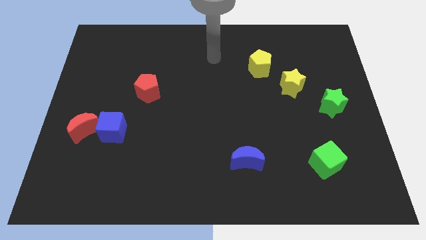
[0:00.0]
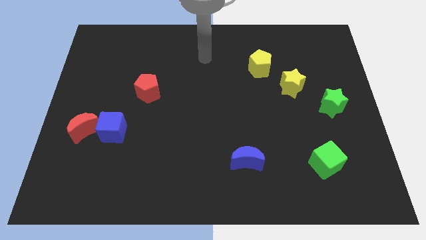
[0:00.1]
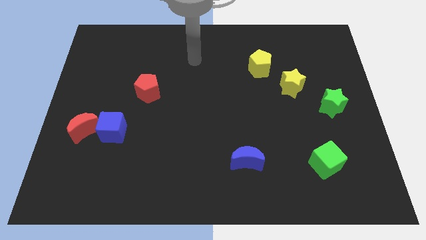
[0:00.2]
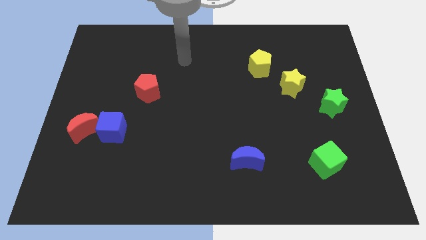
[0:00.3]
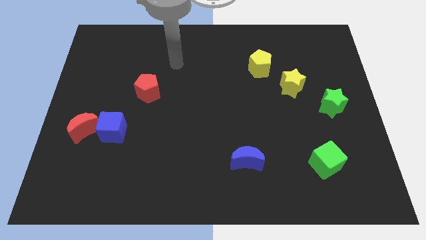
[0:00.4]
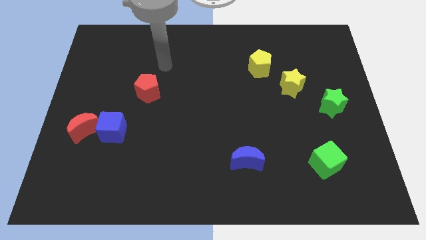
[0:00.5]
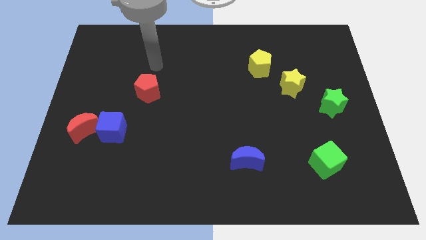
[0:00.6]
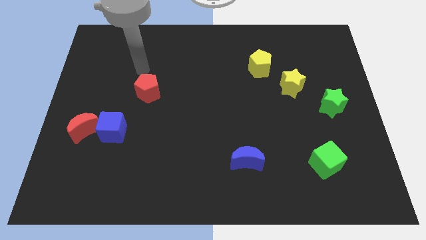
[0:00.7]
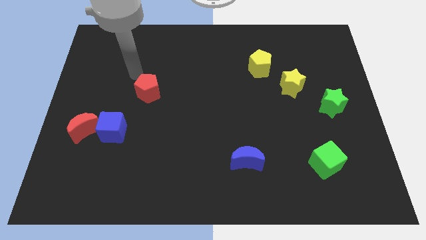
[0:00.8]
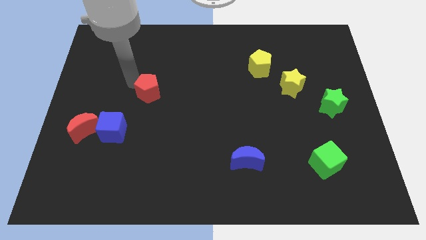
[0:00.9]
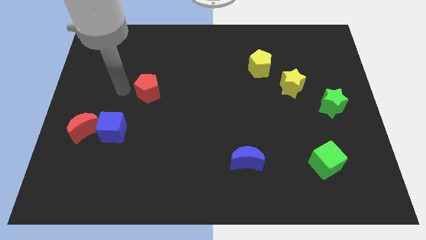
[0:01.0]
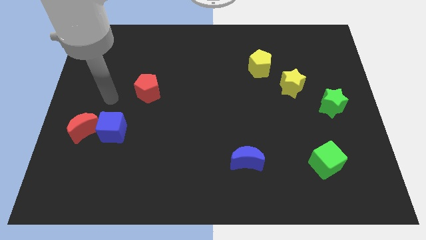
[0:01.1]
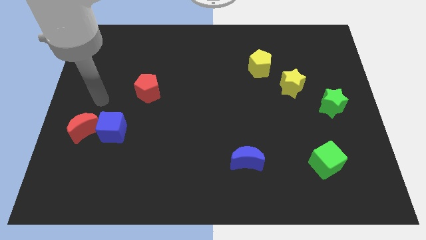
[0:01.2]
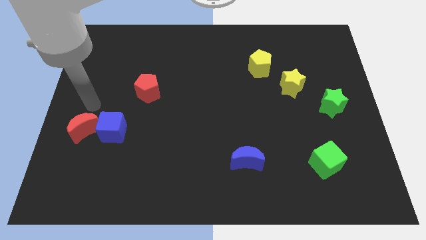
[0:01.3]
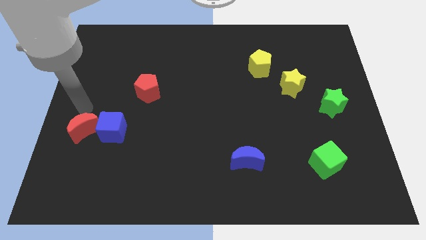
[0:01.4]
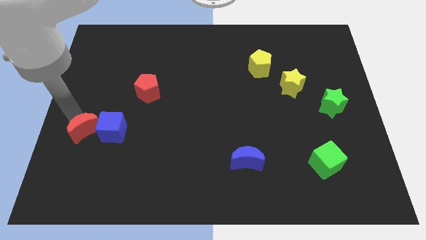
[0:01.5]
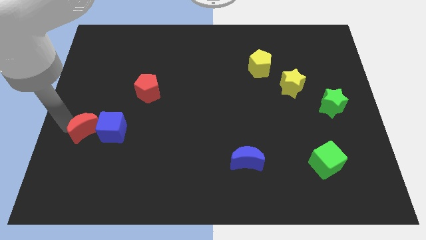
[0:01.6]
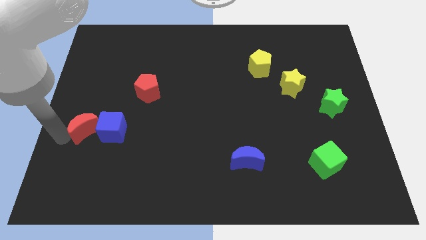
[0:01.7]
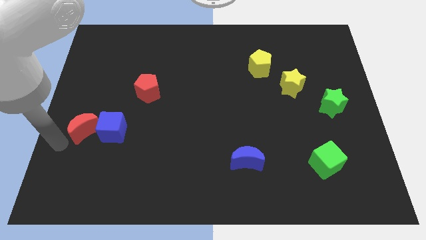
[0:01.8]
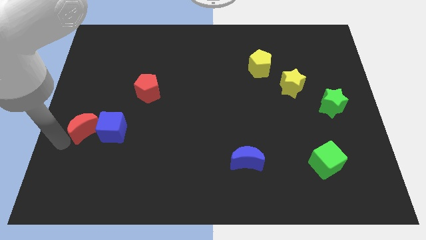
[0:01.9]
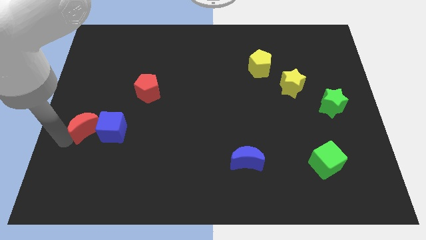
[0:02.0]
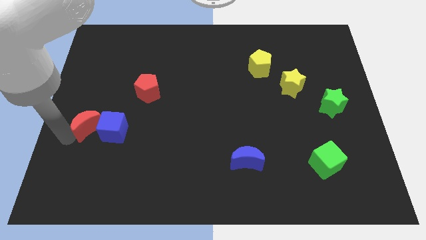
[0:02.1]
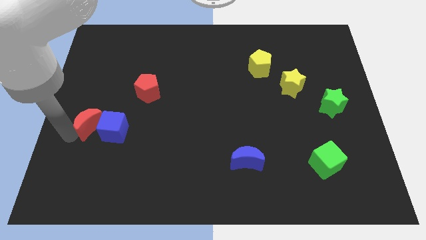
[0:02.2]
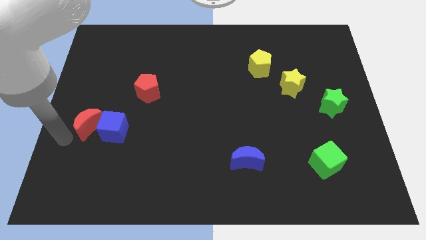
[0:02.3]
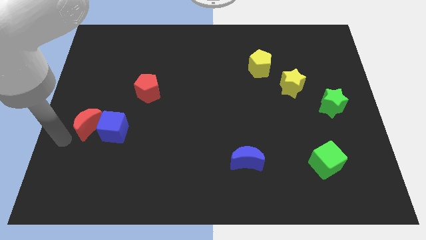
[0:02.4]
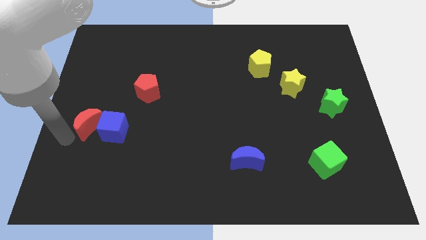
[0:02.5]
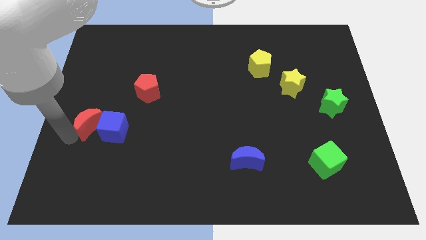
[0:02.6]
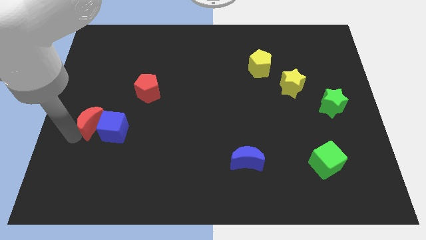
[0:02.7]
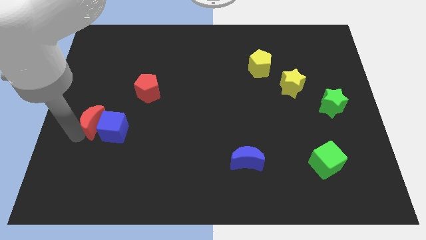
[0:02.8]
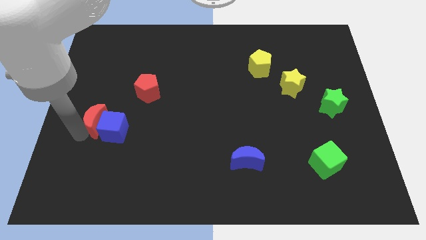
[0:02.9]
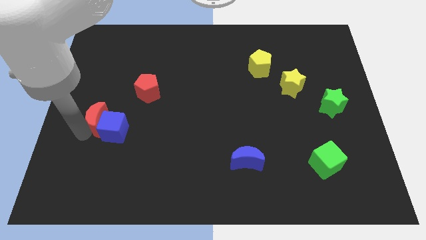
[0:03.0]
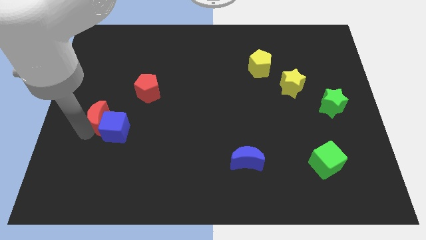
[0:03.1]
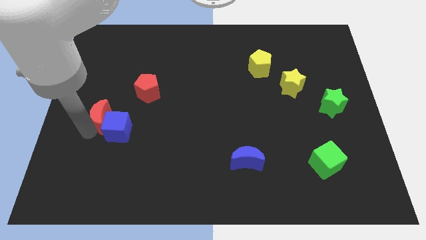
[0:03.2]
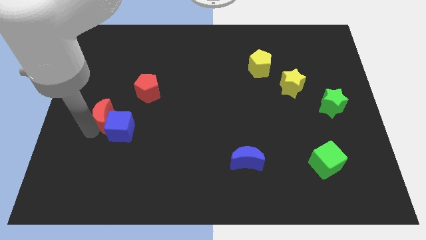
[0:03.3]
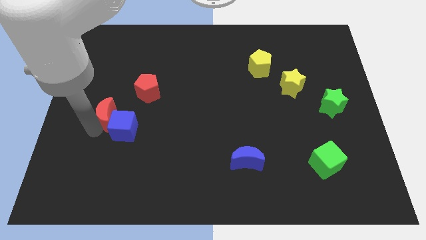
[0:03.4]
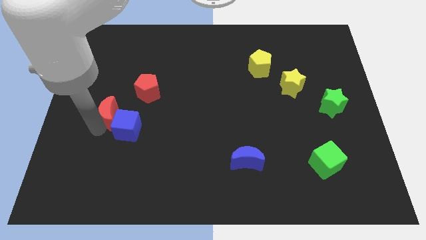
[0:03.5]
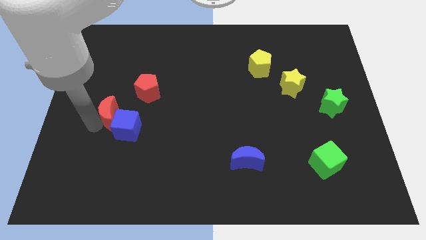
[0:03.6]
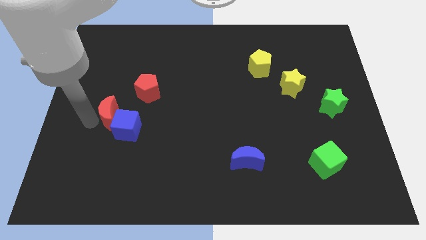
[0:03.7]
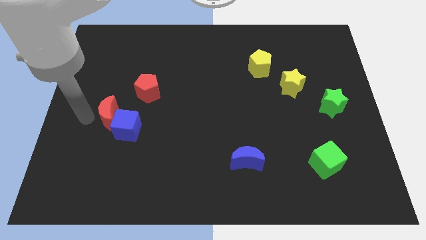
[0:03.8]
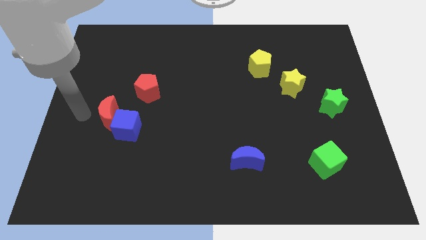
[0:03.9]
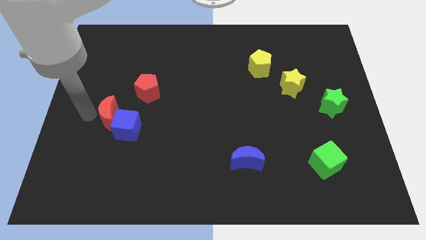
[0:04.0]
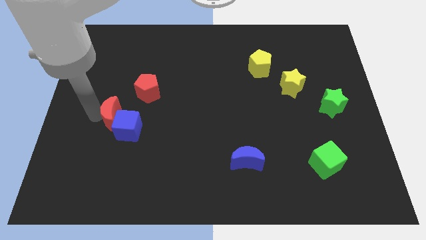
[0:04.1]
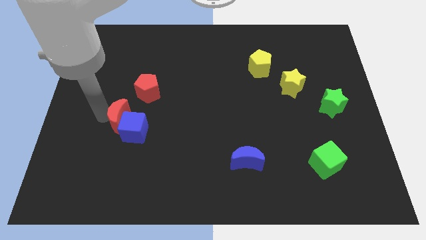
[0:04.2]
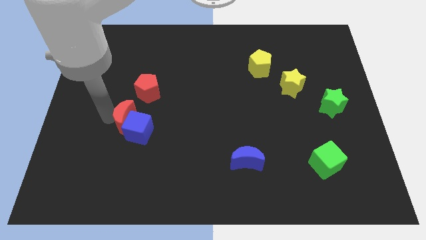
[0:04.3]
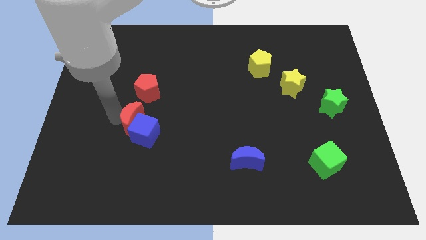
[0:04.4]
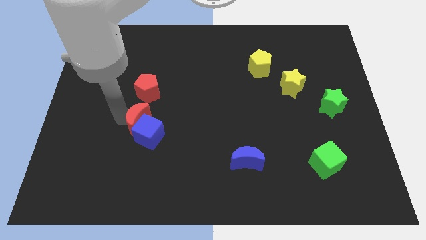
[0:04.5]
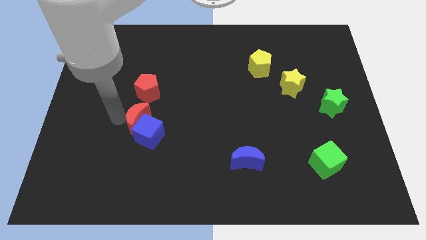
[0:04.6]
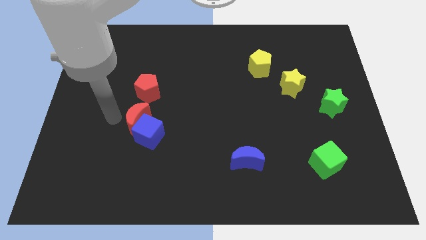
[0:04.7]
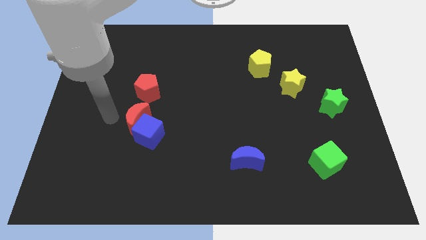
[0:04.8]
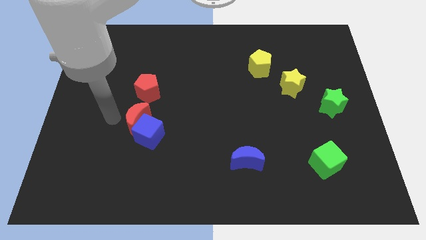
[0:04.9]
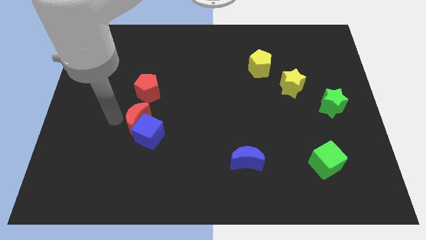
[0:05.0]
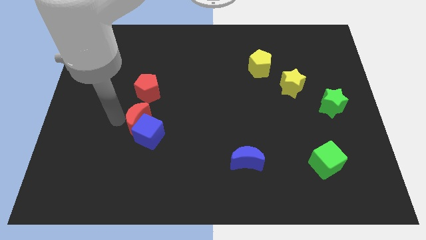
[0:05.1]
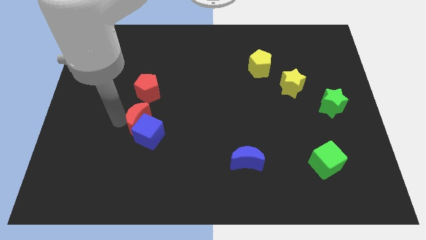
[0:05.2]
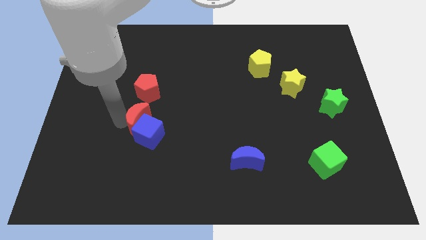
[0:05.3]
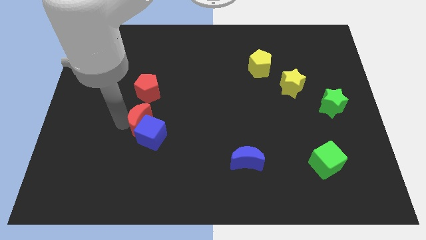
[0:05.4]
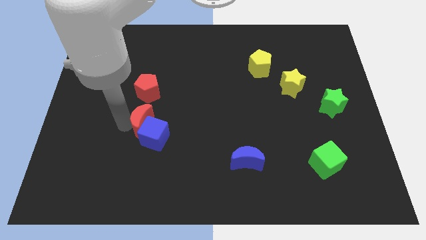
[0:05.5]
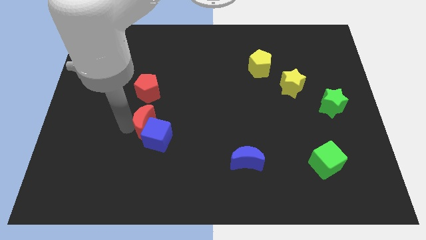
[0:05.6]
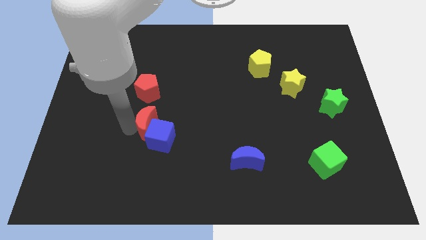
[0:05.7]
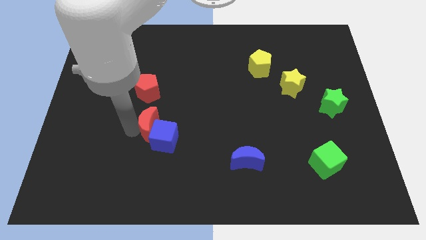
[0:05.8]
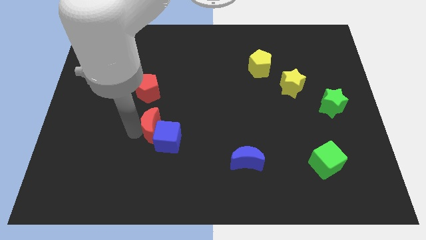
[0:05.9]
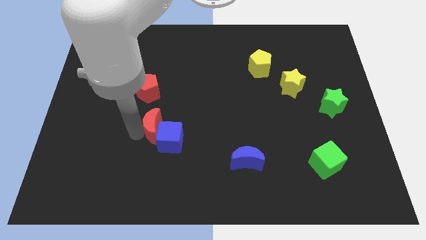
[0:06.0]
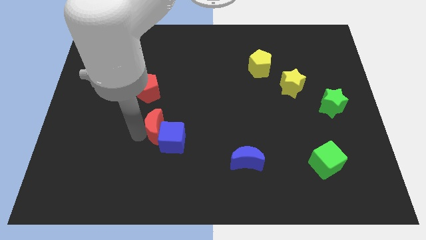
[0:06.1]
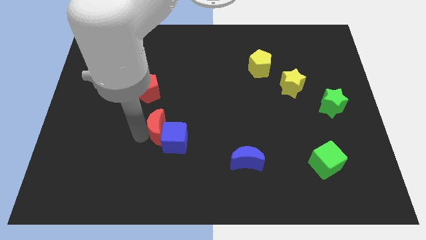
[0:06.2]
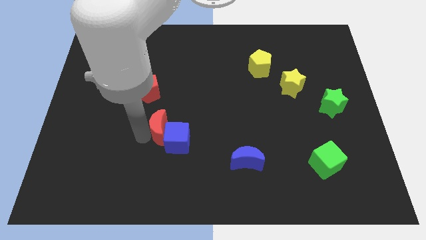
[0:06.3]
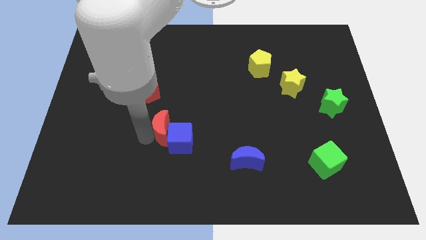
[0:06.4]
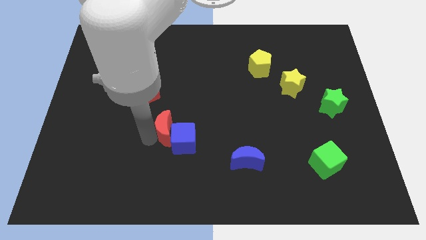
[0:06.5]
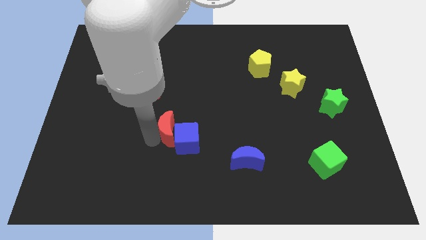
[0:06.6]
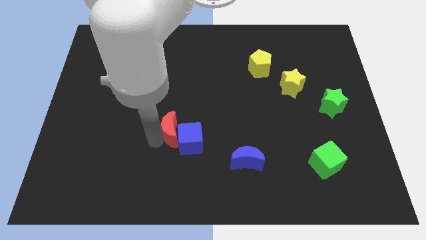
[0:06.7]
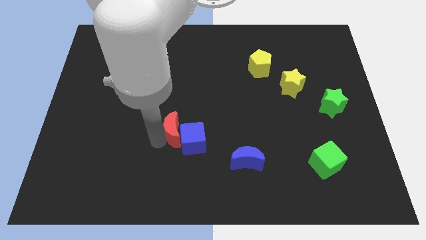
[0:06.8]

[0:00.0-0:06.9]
slide the red moon right

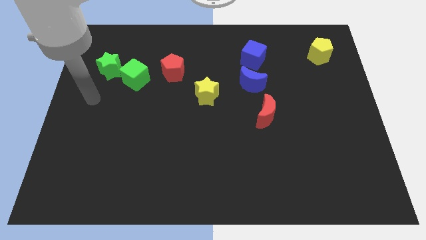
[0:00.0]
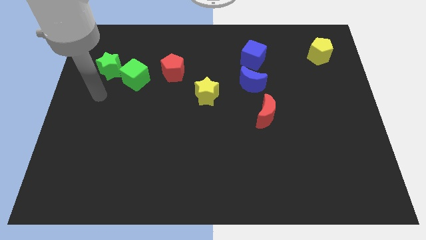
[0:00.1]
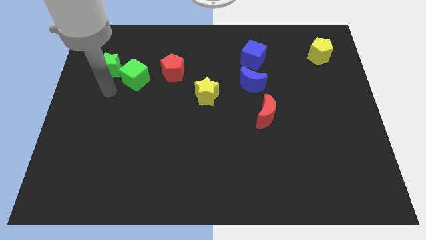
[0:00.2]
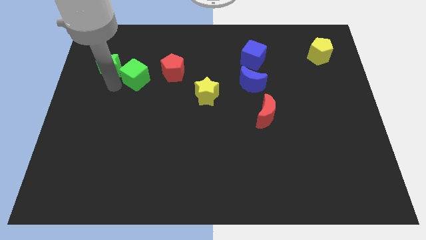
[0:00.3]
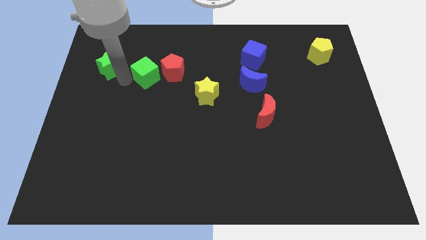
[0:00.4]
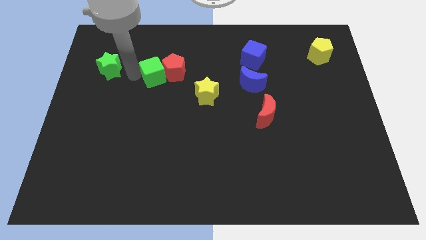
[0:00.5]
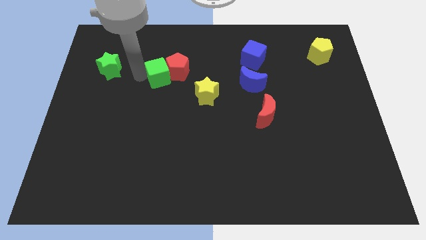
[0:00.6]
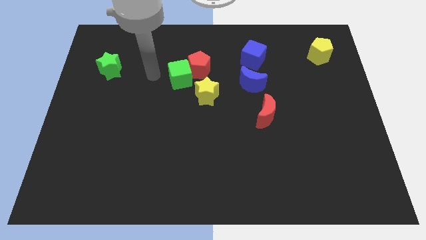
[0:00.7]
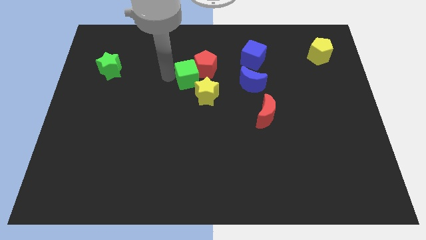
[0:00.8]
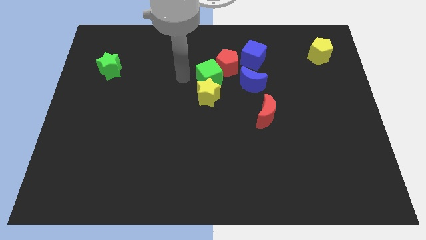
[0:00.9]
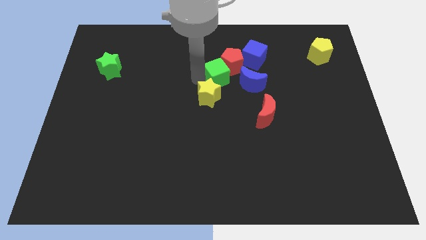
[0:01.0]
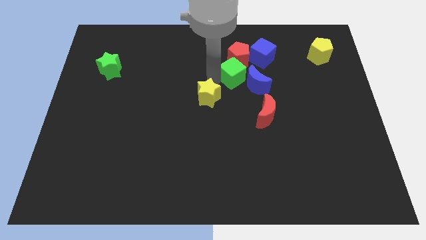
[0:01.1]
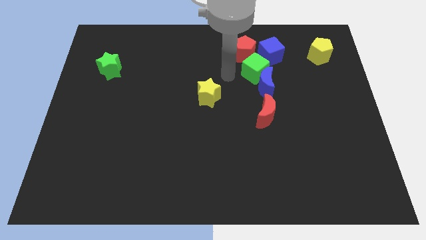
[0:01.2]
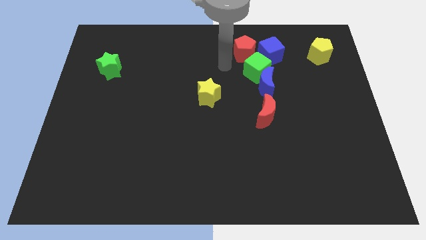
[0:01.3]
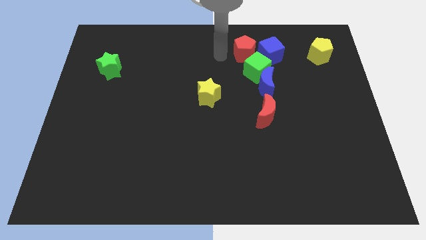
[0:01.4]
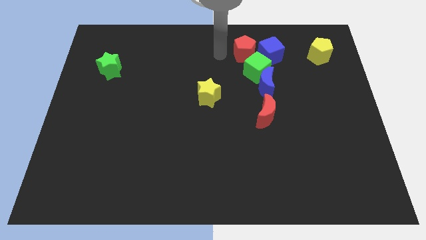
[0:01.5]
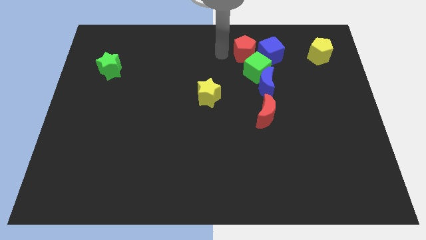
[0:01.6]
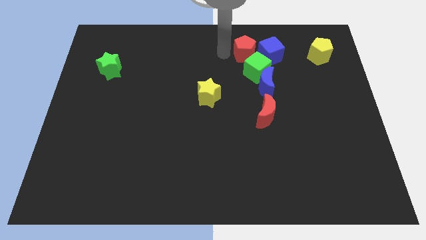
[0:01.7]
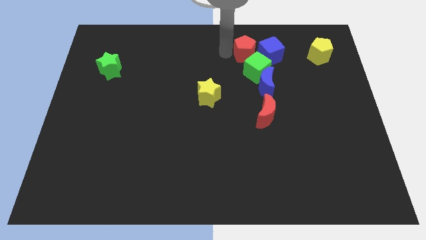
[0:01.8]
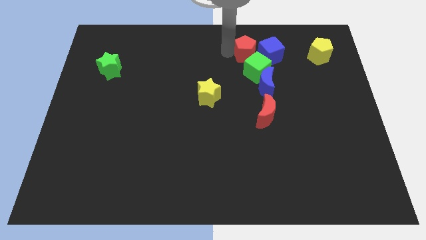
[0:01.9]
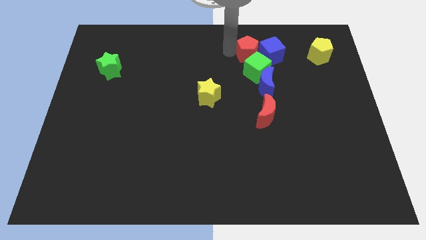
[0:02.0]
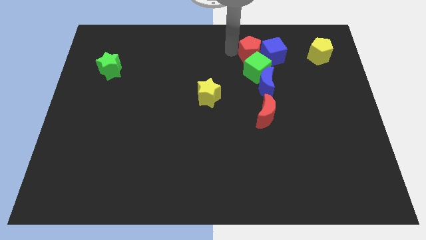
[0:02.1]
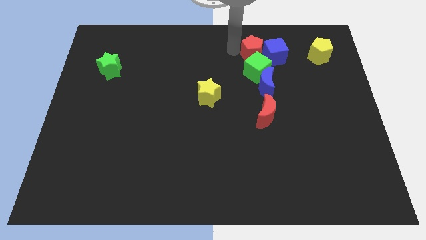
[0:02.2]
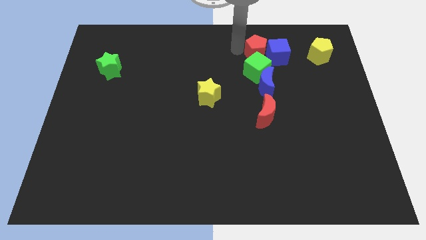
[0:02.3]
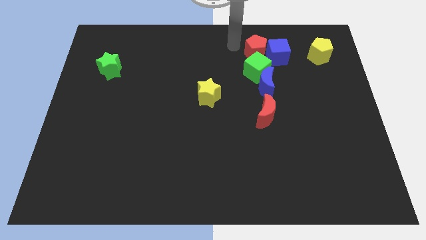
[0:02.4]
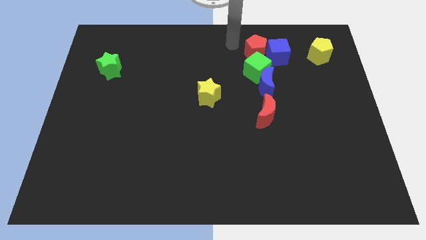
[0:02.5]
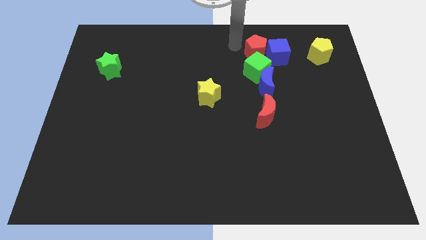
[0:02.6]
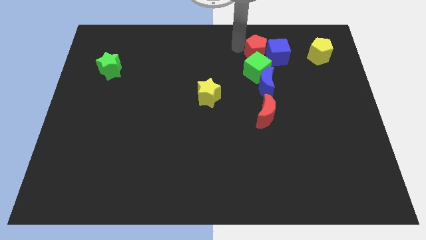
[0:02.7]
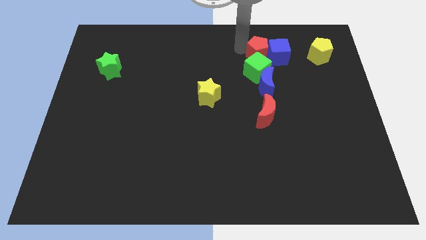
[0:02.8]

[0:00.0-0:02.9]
push the red pentagon to the right
